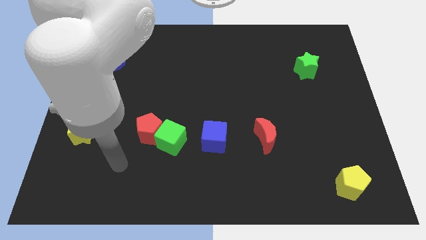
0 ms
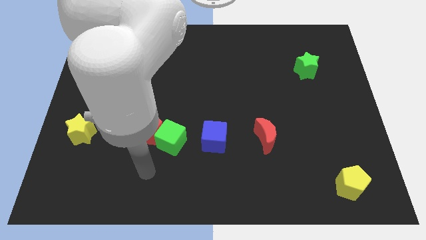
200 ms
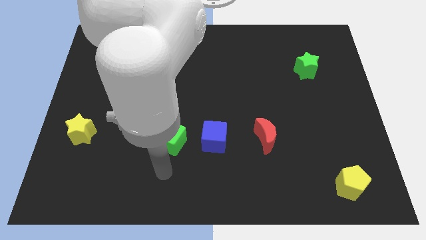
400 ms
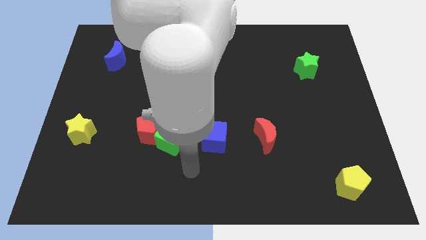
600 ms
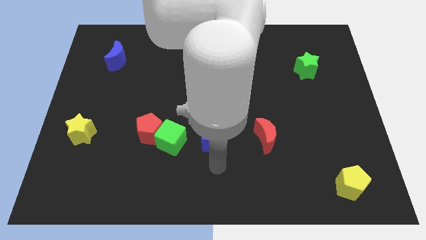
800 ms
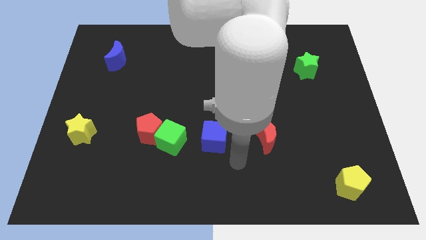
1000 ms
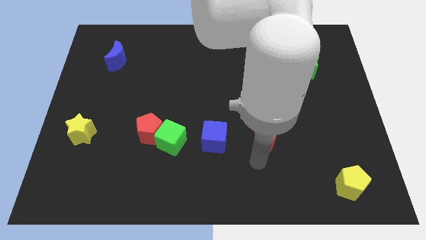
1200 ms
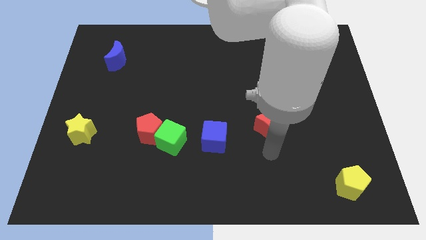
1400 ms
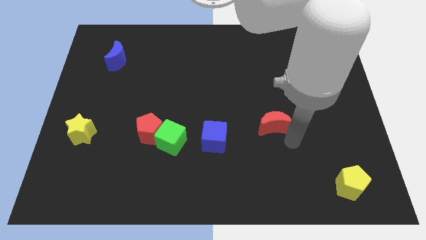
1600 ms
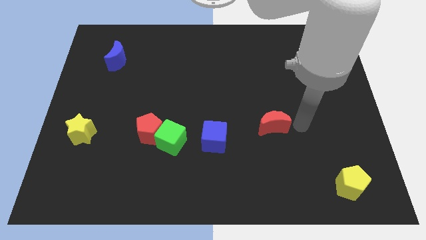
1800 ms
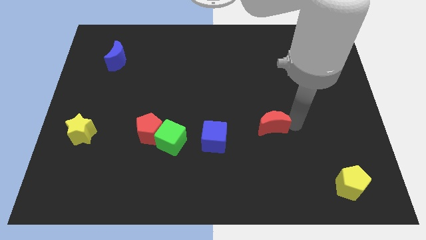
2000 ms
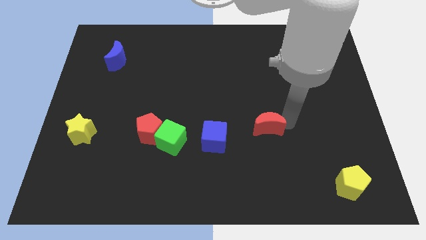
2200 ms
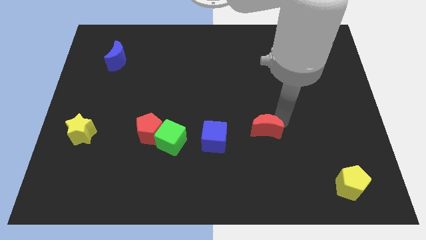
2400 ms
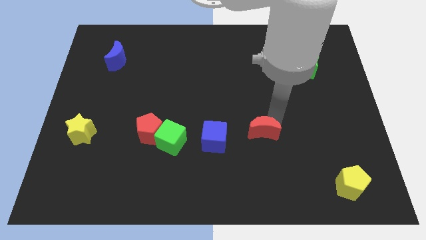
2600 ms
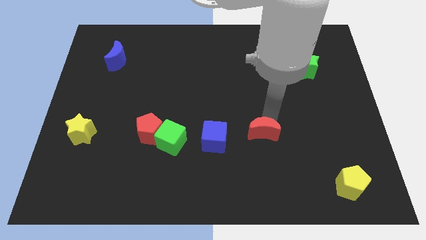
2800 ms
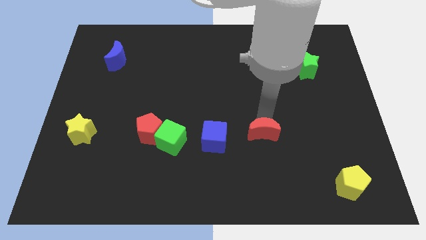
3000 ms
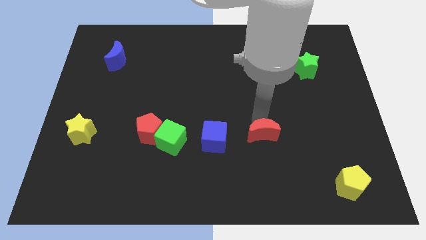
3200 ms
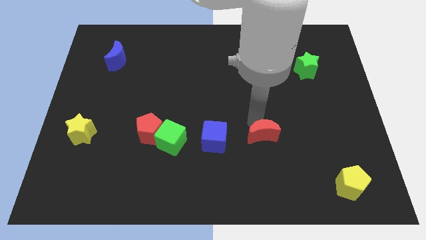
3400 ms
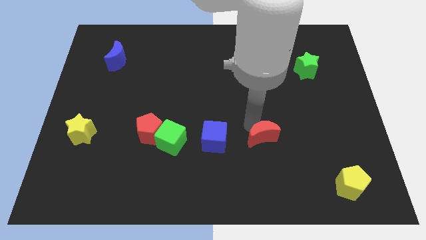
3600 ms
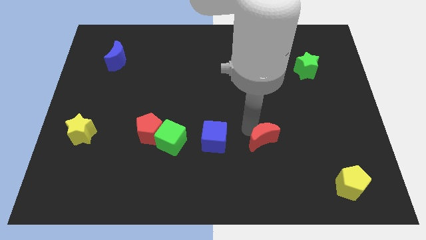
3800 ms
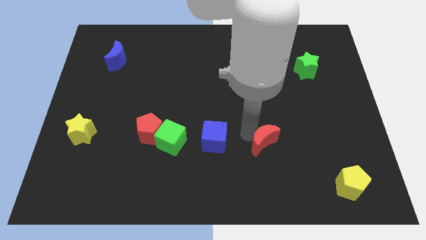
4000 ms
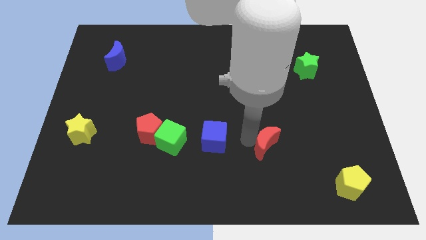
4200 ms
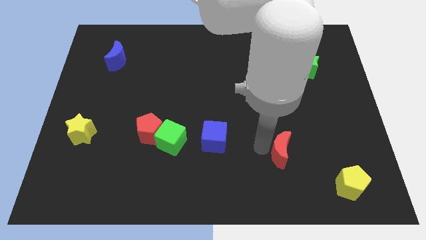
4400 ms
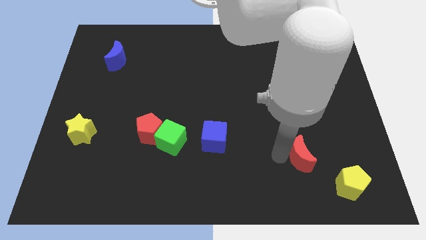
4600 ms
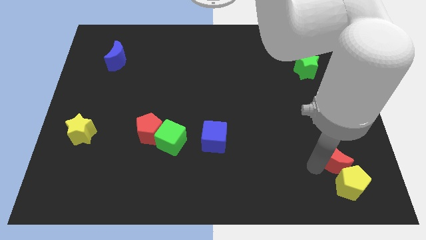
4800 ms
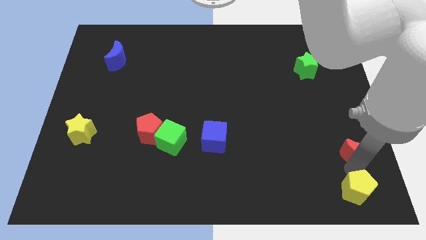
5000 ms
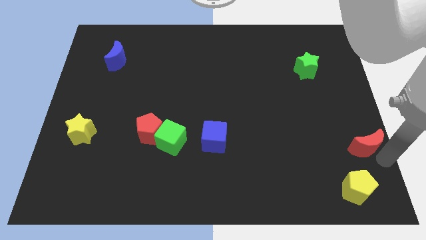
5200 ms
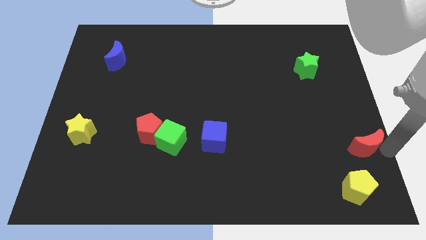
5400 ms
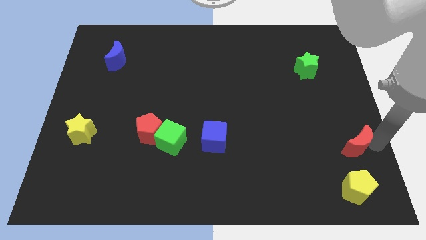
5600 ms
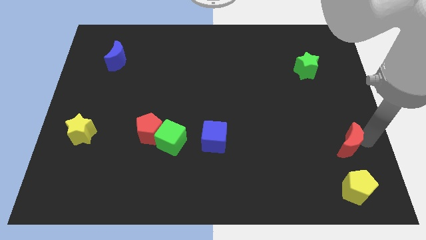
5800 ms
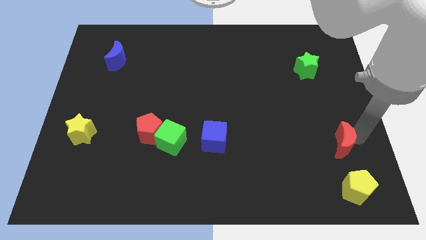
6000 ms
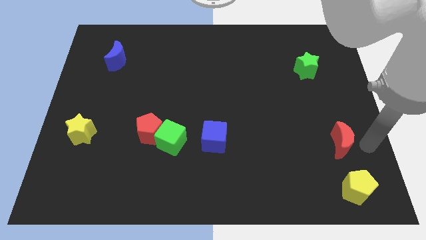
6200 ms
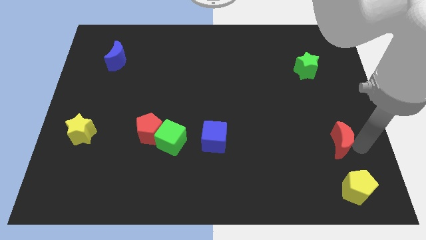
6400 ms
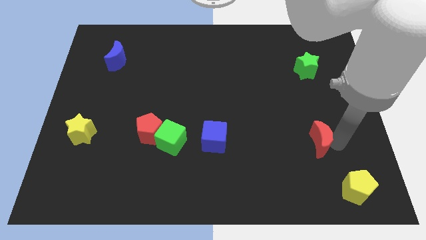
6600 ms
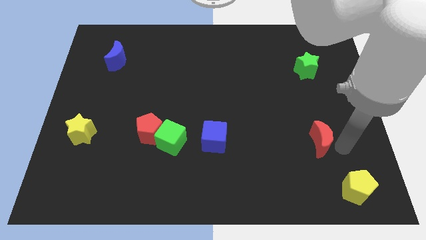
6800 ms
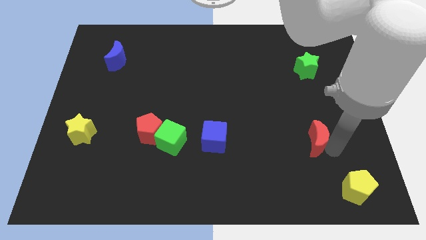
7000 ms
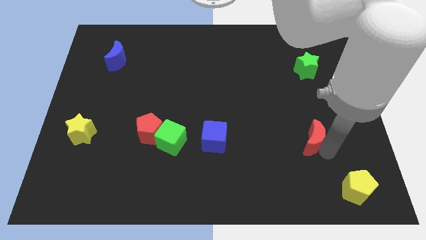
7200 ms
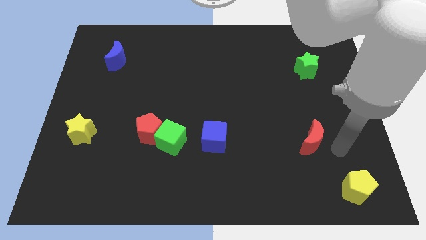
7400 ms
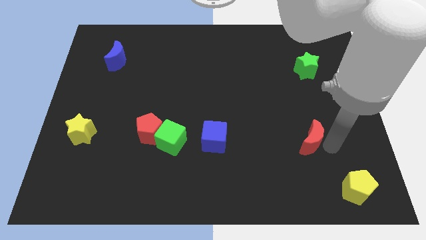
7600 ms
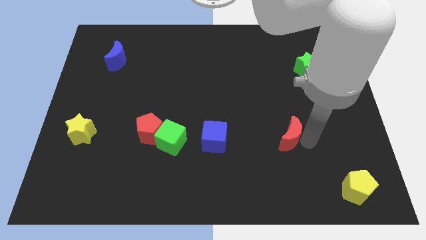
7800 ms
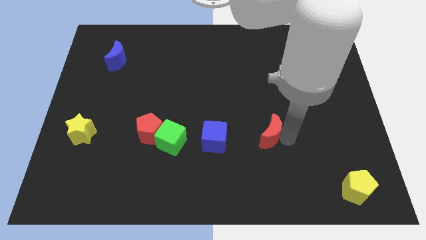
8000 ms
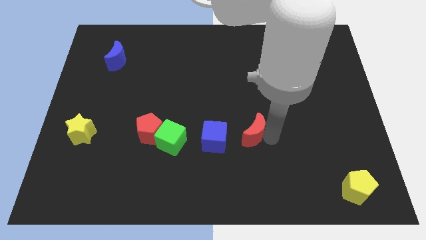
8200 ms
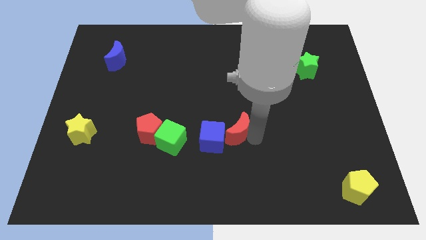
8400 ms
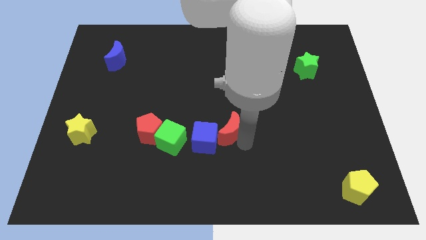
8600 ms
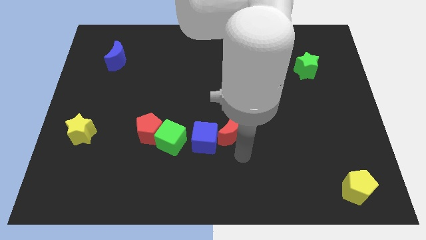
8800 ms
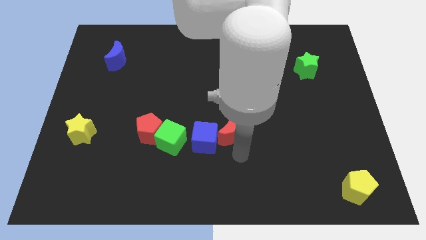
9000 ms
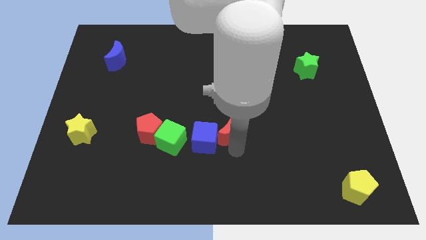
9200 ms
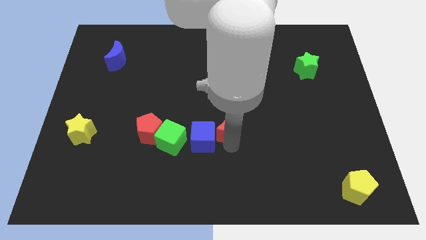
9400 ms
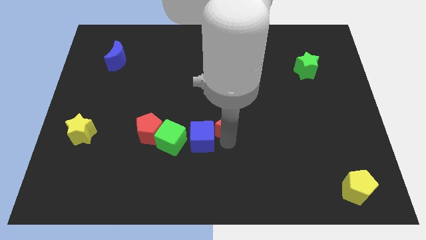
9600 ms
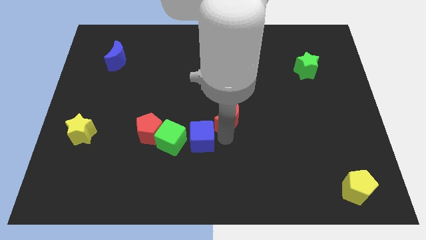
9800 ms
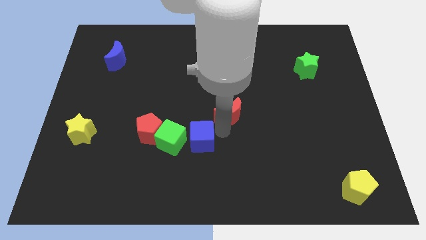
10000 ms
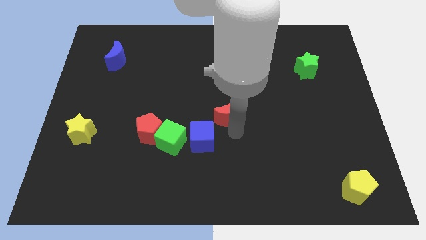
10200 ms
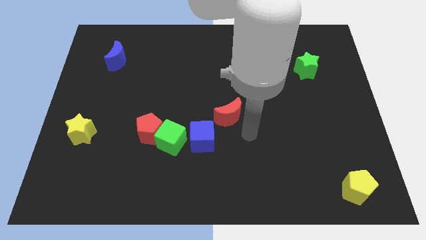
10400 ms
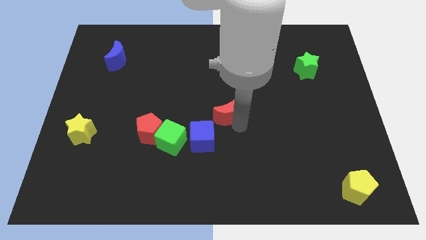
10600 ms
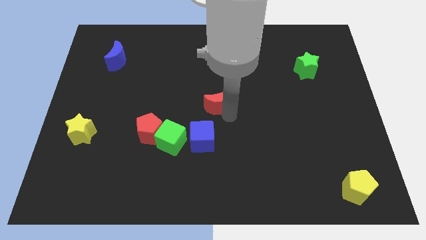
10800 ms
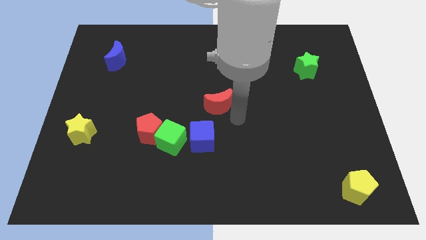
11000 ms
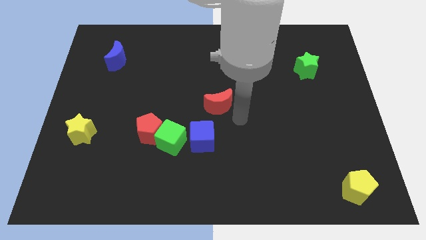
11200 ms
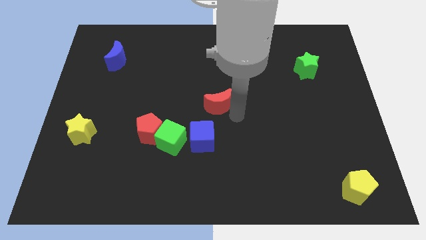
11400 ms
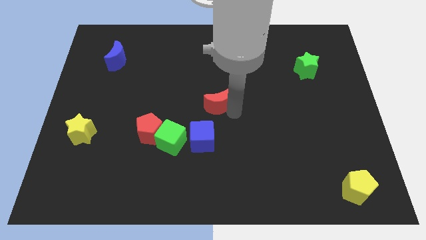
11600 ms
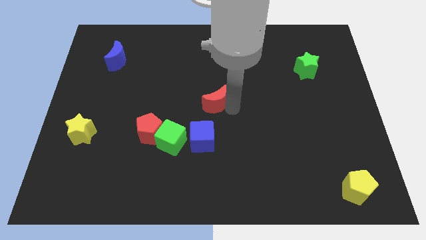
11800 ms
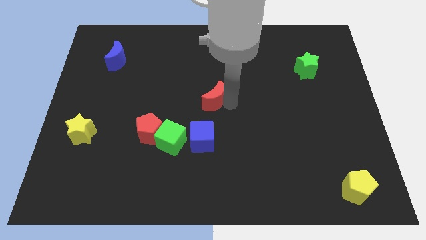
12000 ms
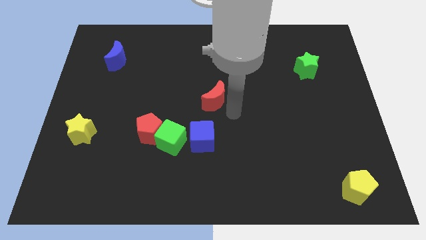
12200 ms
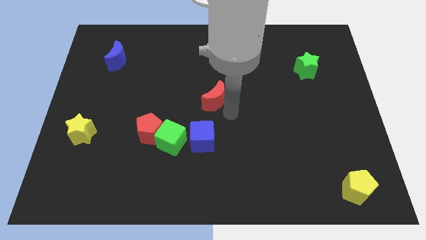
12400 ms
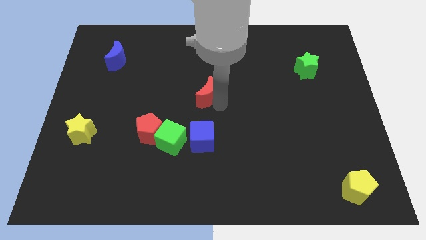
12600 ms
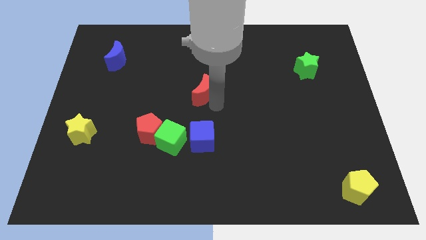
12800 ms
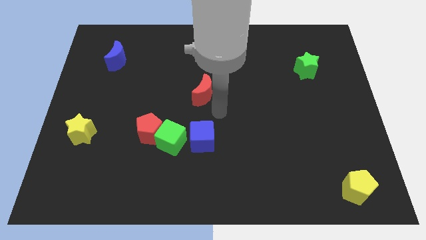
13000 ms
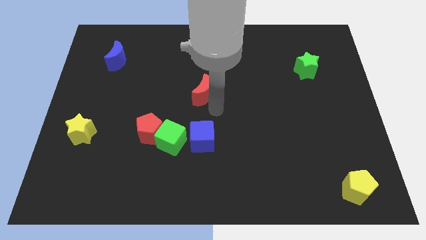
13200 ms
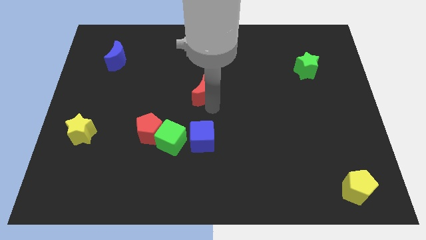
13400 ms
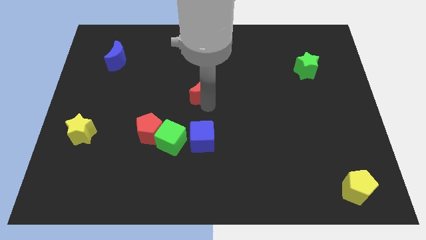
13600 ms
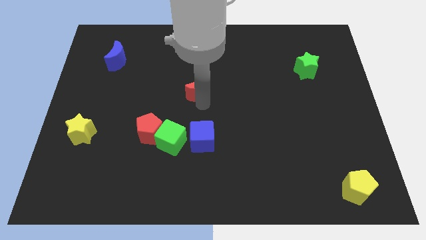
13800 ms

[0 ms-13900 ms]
move the red moon upwards and then left

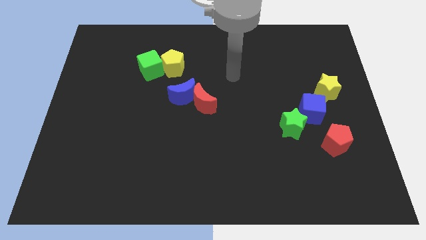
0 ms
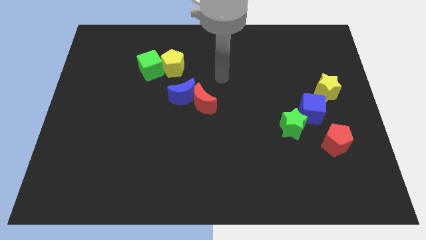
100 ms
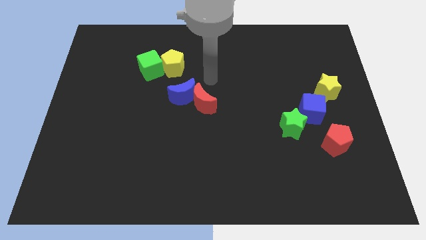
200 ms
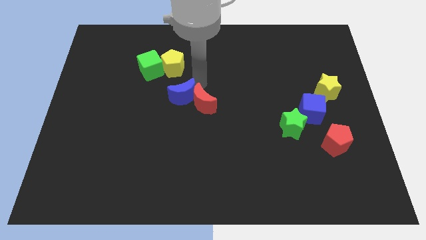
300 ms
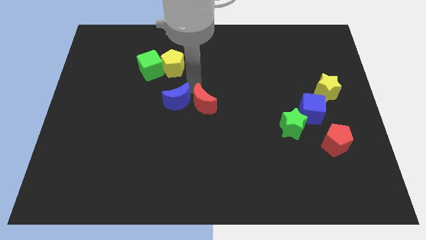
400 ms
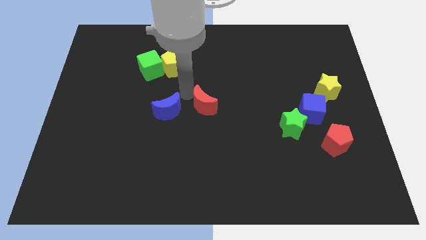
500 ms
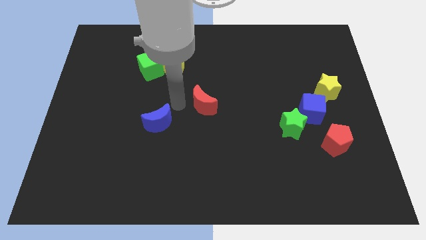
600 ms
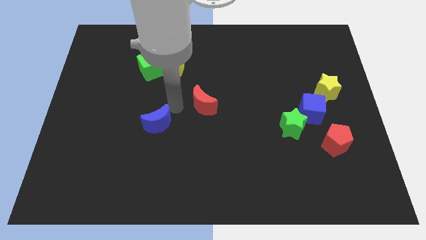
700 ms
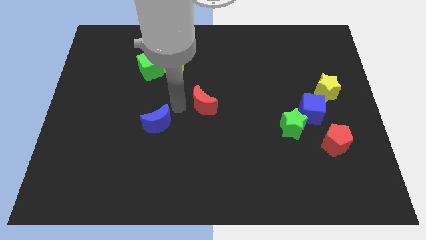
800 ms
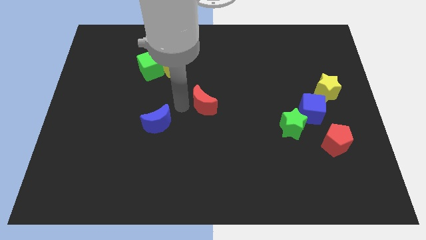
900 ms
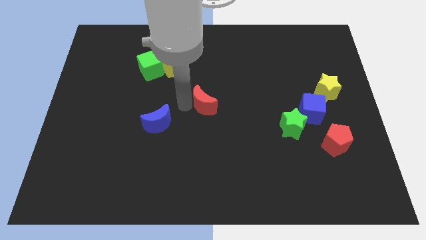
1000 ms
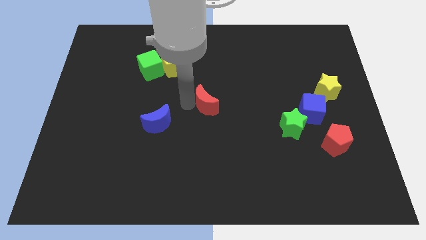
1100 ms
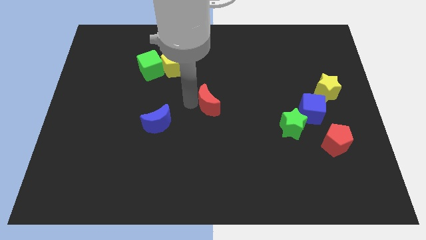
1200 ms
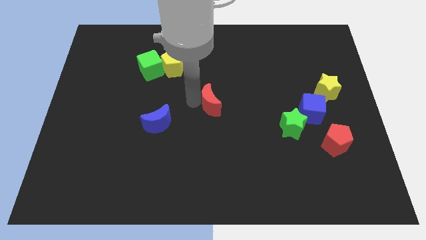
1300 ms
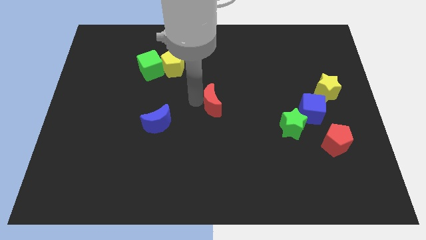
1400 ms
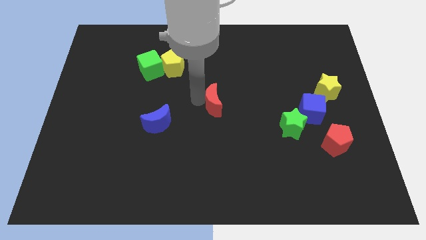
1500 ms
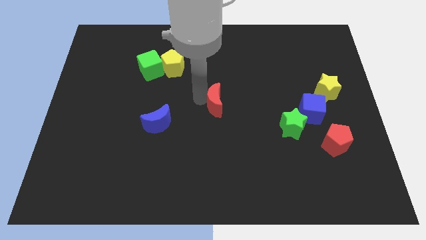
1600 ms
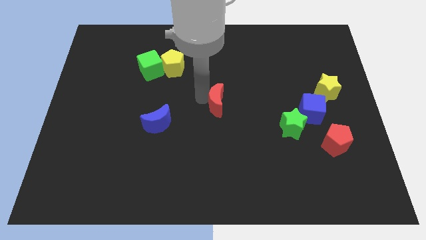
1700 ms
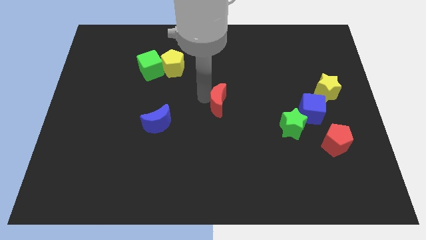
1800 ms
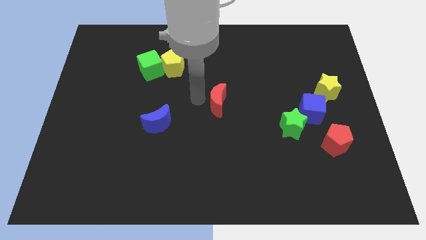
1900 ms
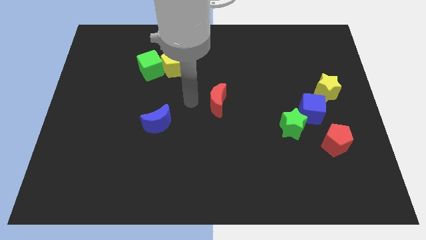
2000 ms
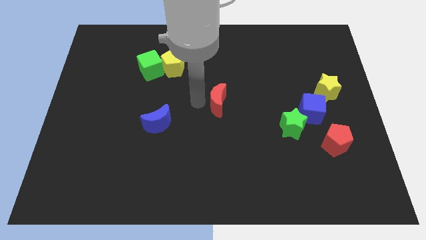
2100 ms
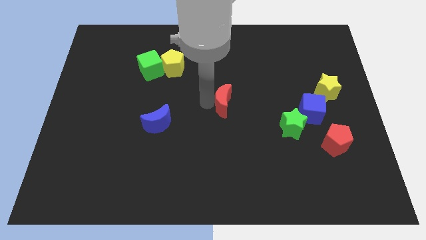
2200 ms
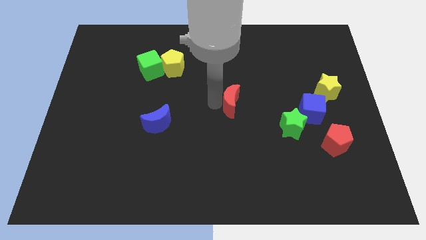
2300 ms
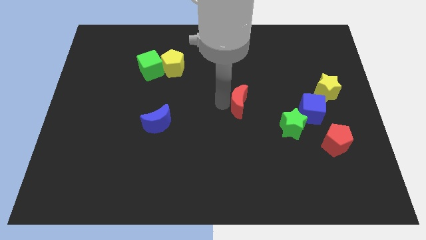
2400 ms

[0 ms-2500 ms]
slide the red moon right somewhat
